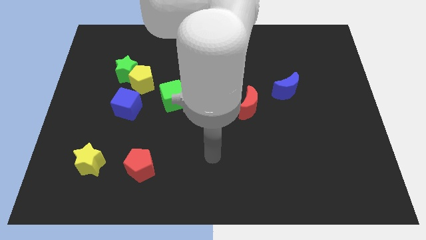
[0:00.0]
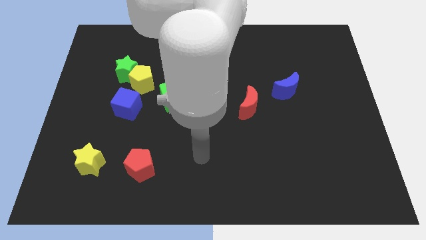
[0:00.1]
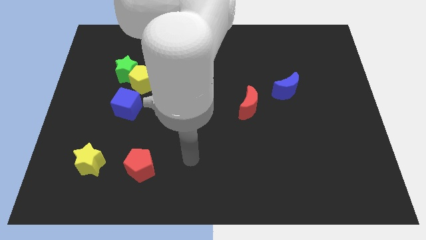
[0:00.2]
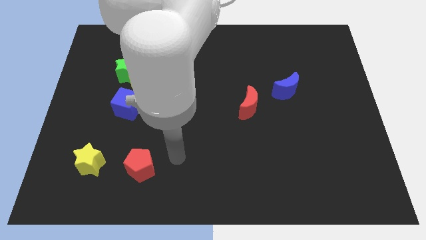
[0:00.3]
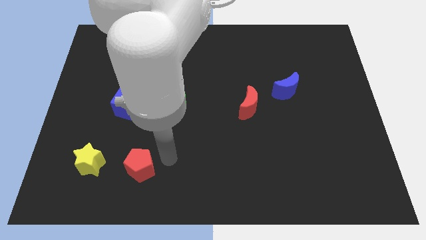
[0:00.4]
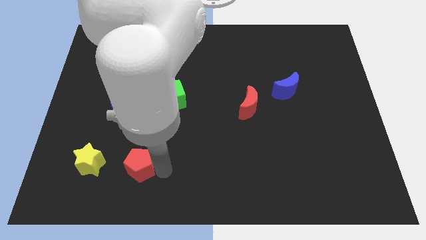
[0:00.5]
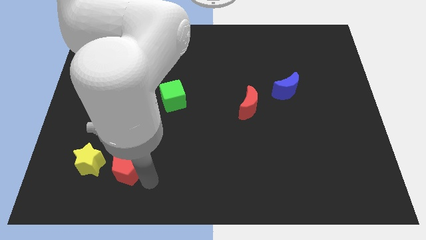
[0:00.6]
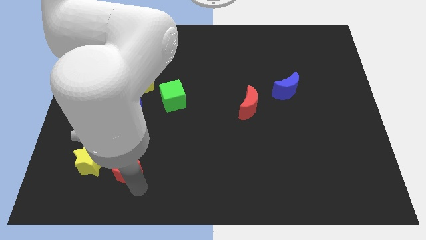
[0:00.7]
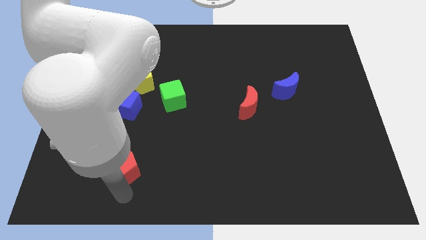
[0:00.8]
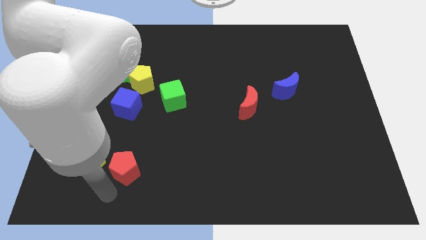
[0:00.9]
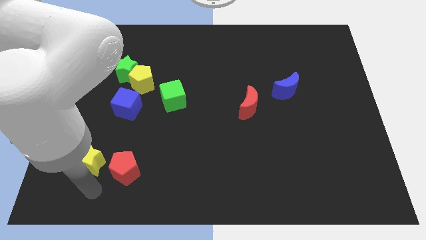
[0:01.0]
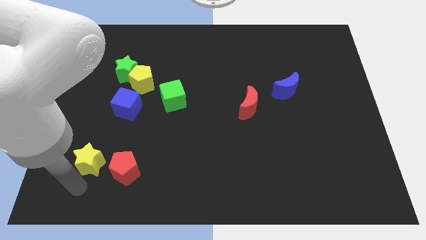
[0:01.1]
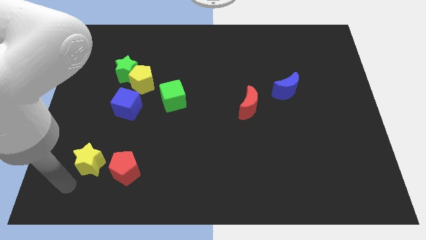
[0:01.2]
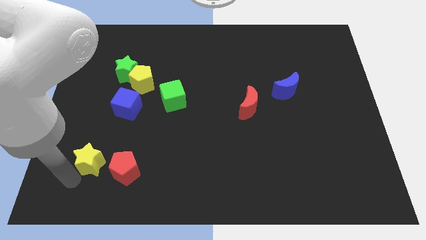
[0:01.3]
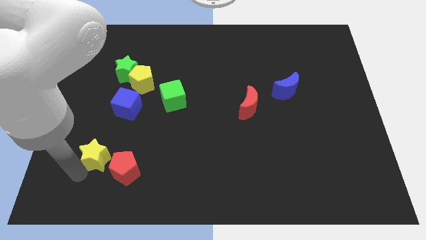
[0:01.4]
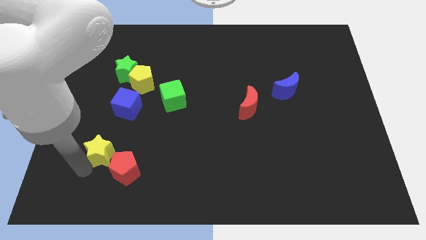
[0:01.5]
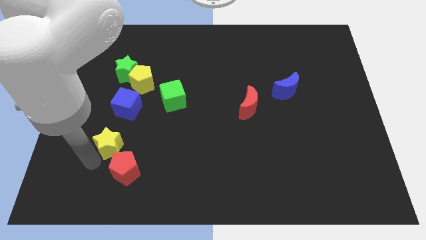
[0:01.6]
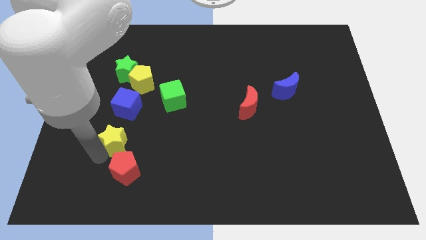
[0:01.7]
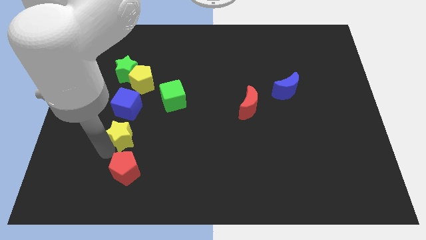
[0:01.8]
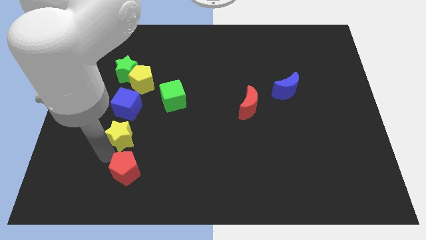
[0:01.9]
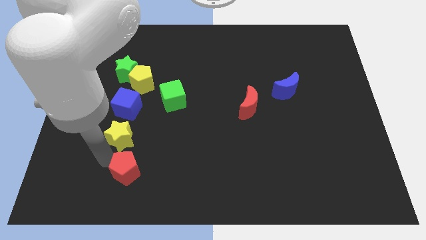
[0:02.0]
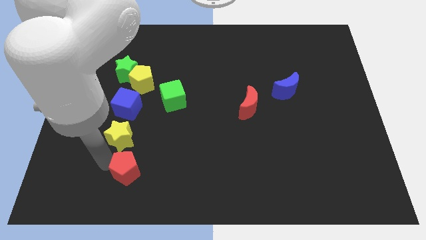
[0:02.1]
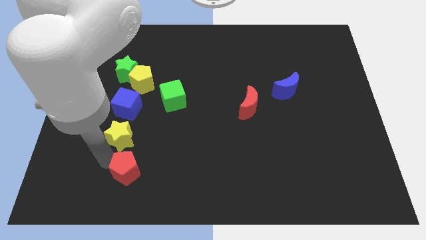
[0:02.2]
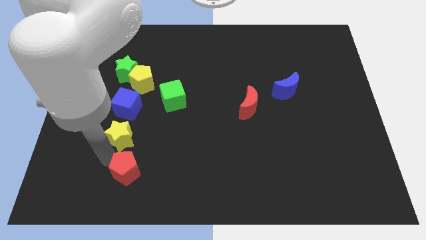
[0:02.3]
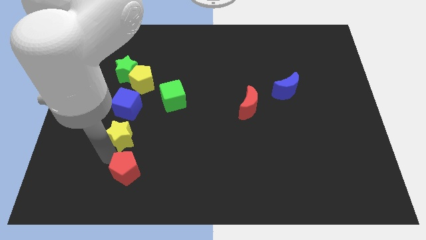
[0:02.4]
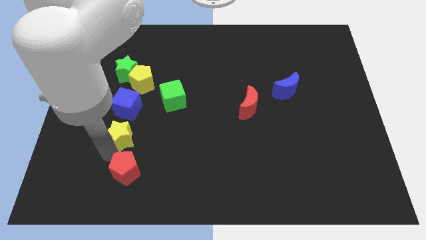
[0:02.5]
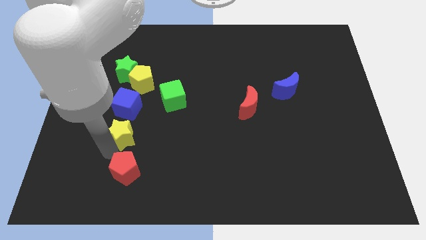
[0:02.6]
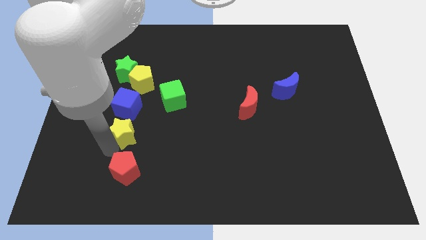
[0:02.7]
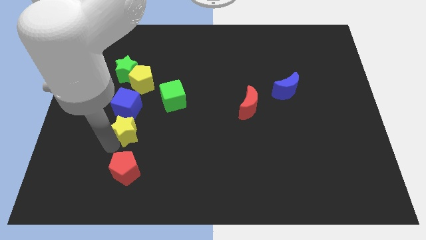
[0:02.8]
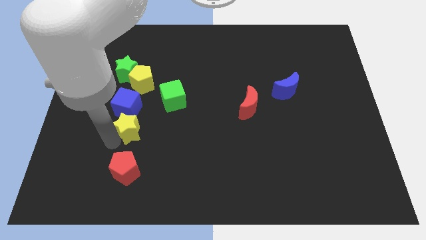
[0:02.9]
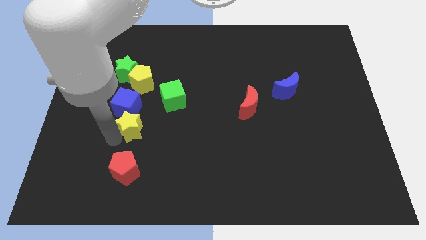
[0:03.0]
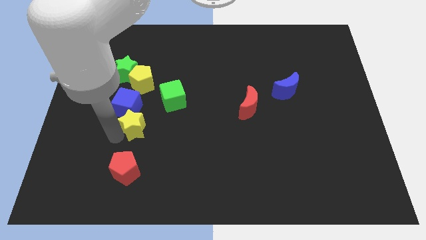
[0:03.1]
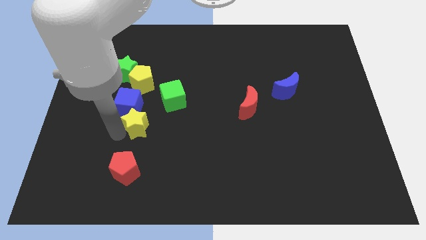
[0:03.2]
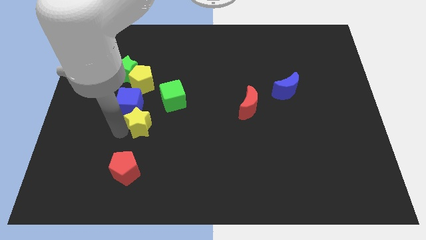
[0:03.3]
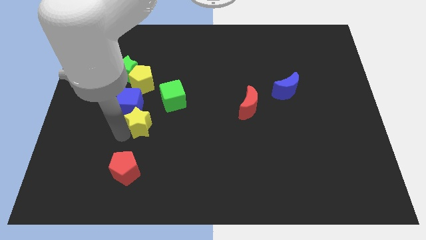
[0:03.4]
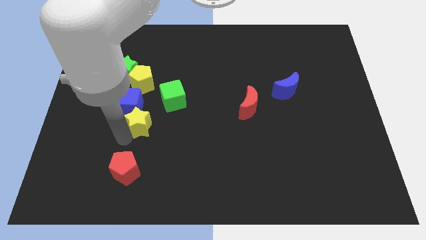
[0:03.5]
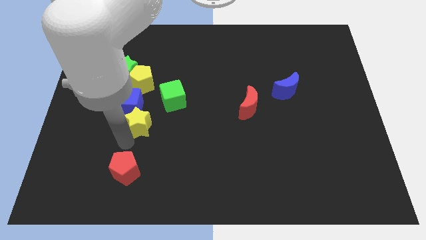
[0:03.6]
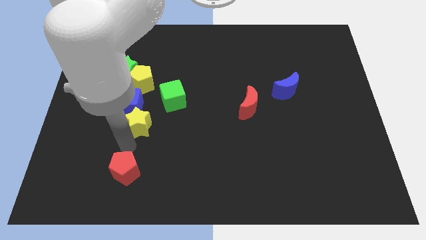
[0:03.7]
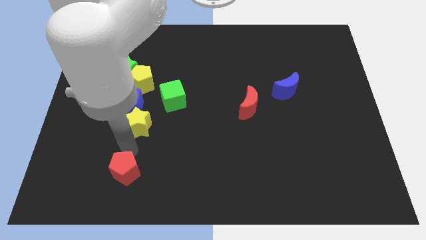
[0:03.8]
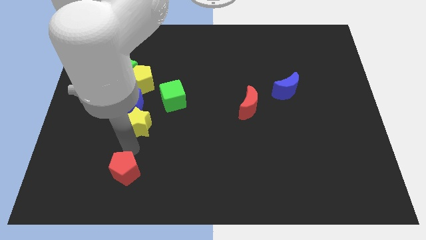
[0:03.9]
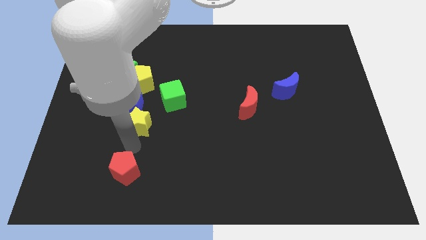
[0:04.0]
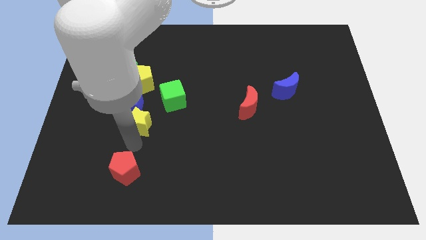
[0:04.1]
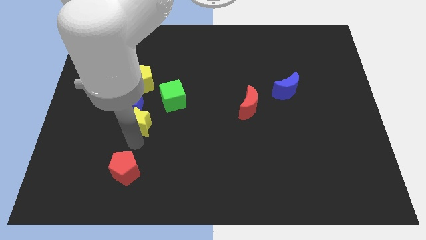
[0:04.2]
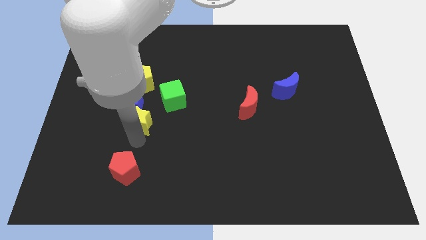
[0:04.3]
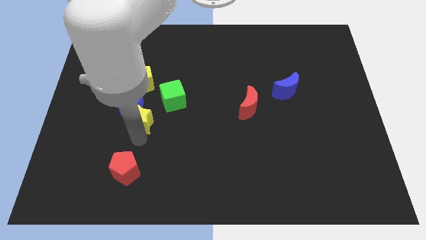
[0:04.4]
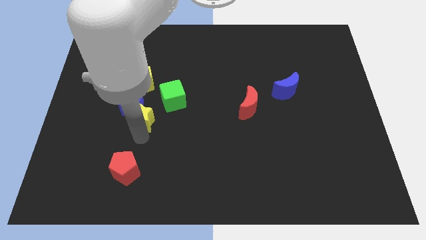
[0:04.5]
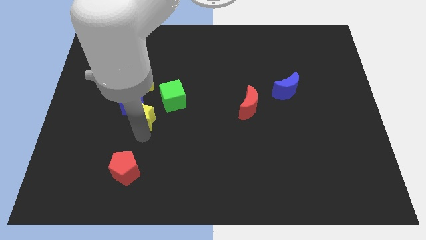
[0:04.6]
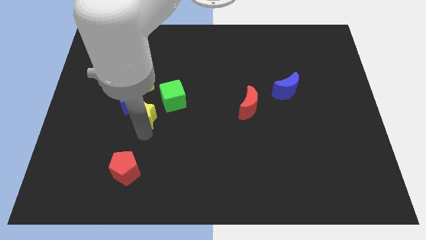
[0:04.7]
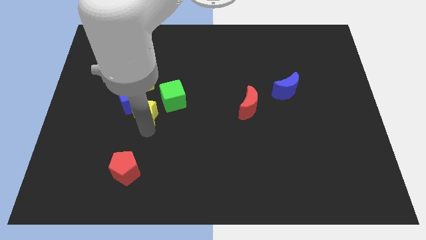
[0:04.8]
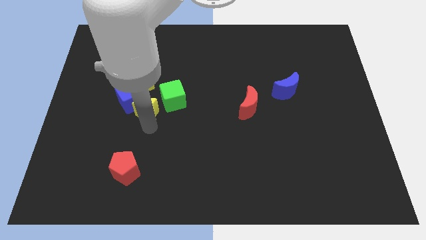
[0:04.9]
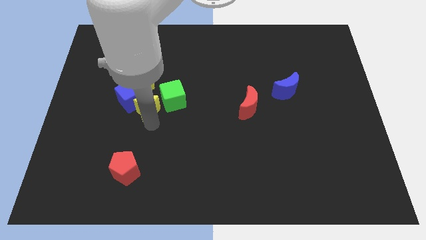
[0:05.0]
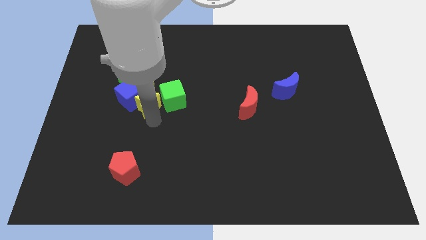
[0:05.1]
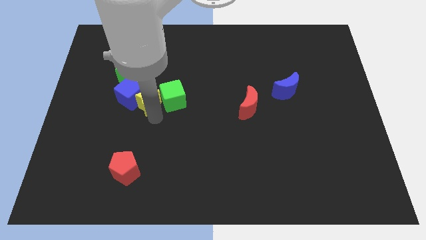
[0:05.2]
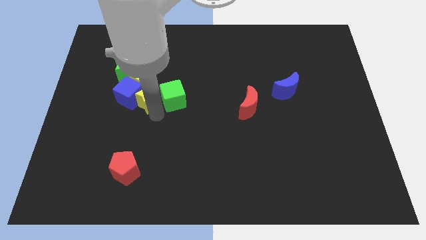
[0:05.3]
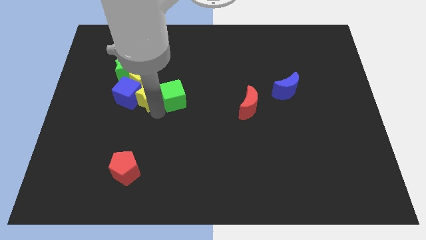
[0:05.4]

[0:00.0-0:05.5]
put the yellow star to the top right side of the blue cube

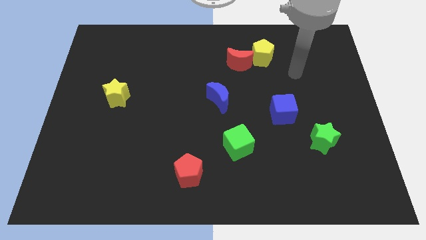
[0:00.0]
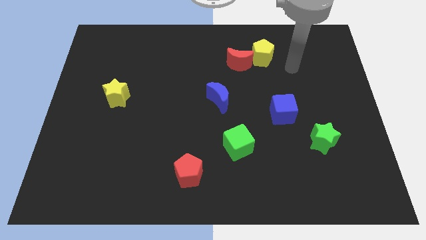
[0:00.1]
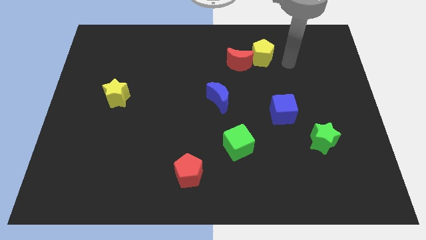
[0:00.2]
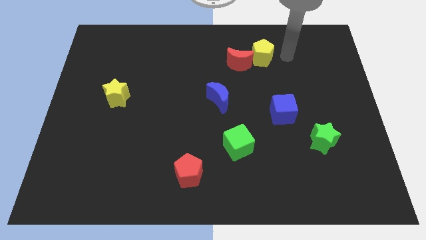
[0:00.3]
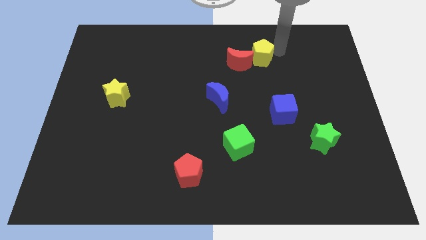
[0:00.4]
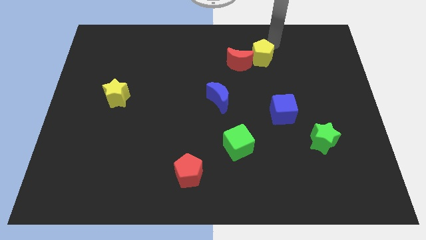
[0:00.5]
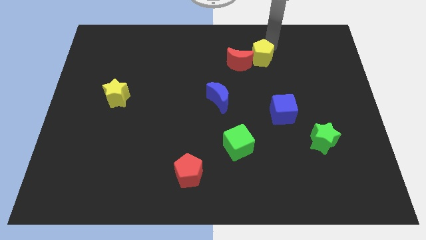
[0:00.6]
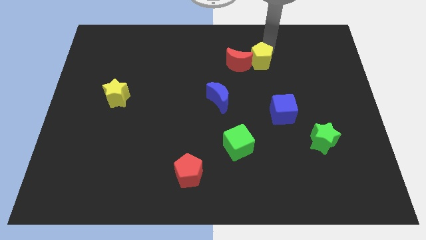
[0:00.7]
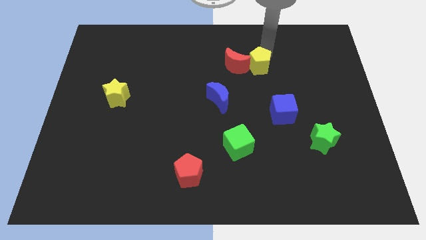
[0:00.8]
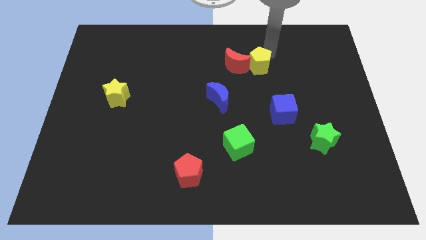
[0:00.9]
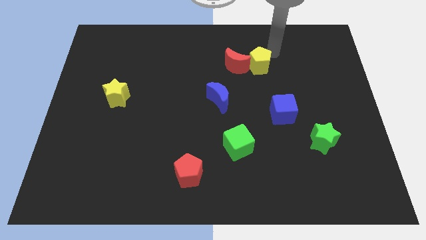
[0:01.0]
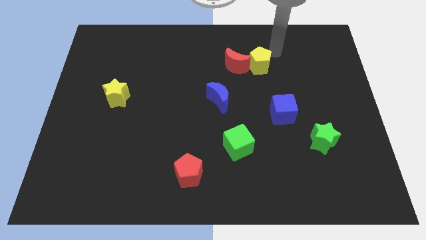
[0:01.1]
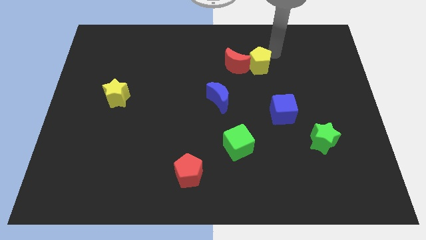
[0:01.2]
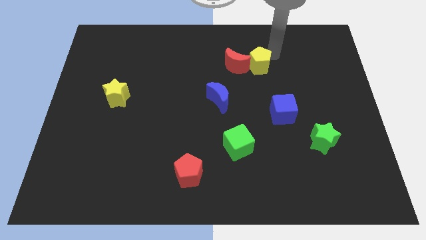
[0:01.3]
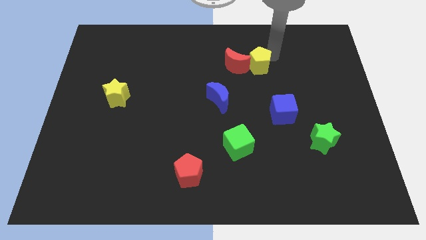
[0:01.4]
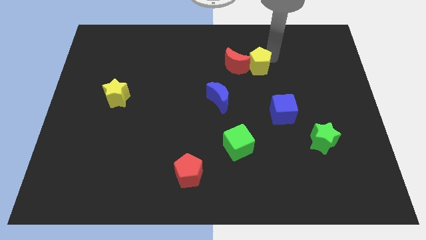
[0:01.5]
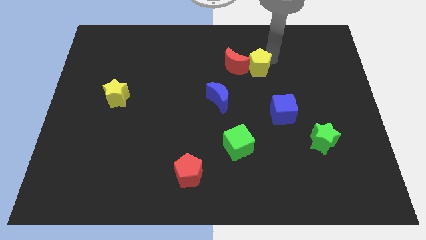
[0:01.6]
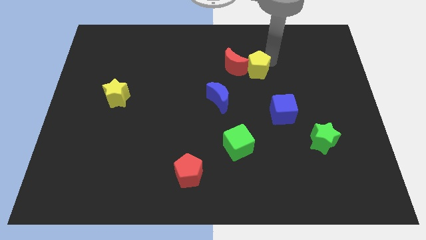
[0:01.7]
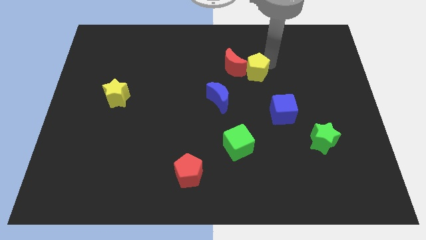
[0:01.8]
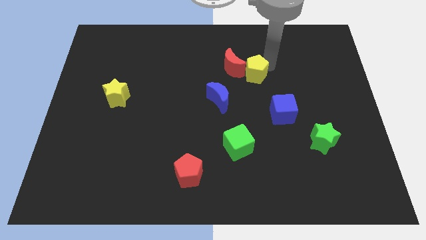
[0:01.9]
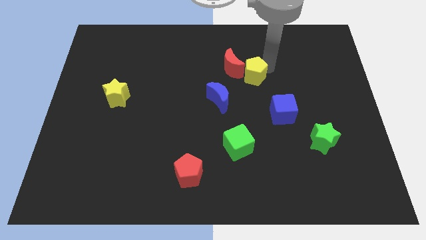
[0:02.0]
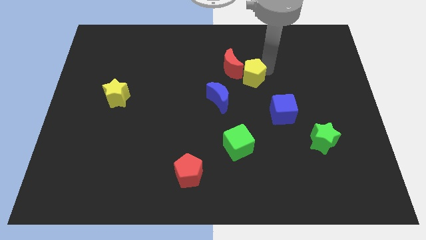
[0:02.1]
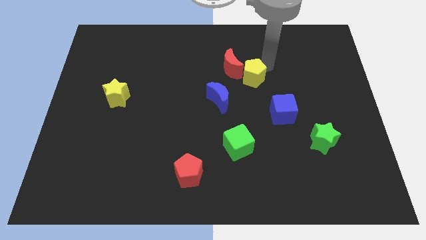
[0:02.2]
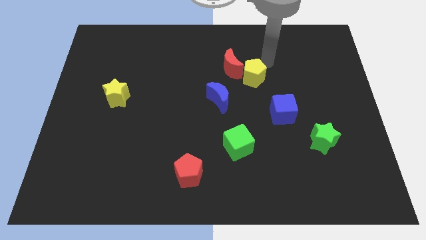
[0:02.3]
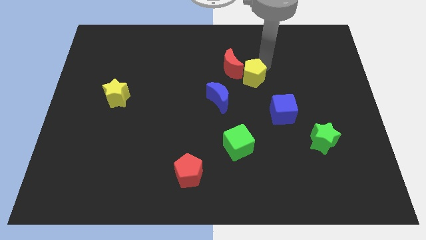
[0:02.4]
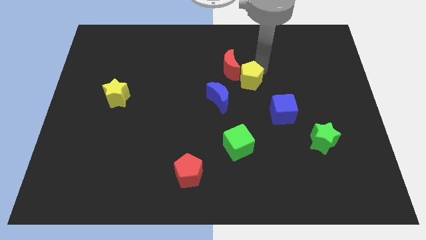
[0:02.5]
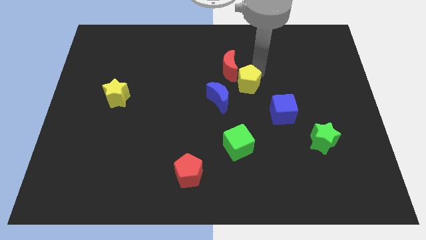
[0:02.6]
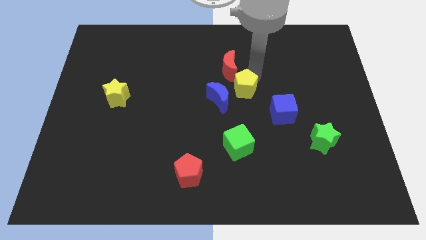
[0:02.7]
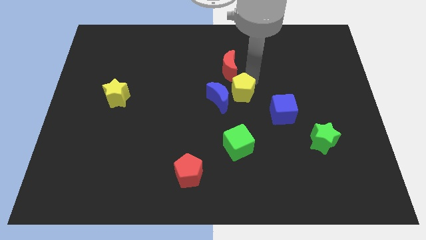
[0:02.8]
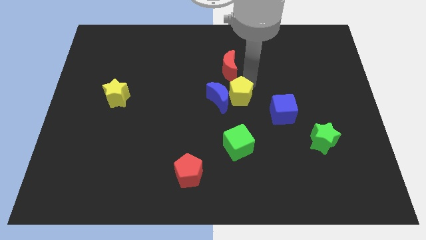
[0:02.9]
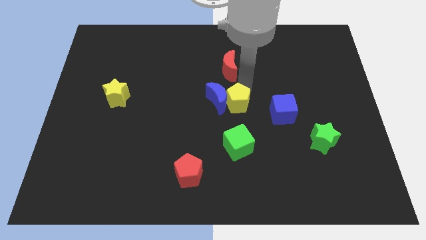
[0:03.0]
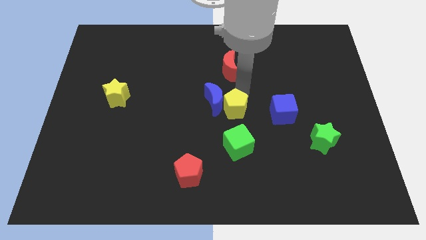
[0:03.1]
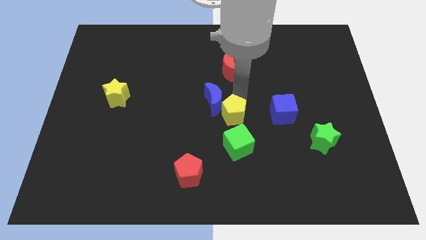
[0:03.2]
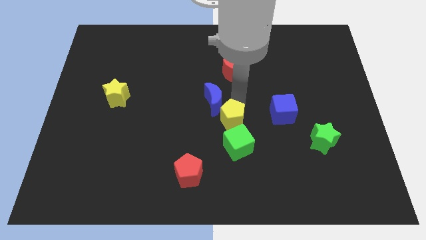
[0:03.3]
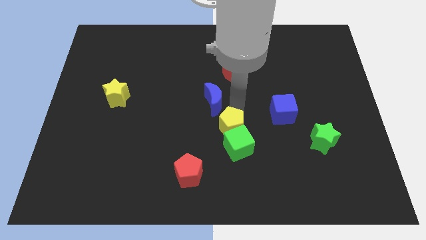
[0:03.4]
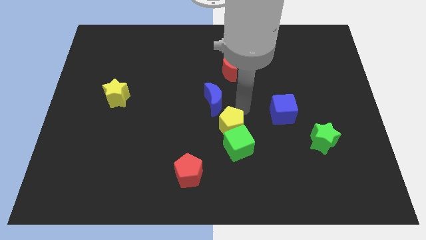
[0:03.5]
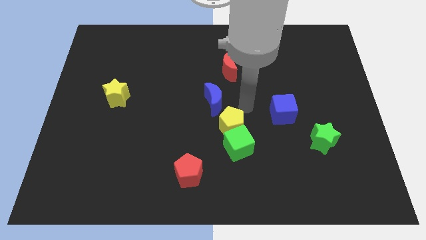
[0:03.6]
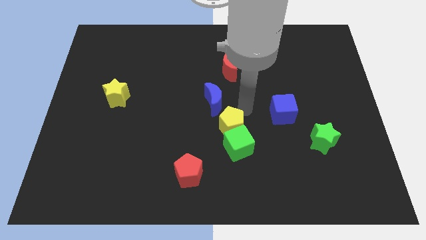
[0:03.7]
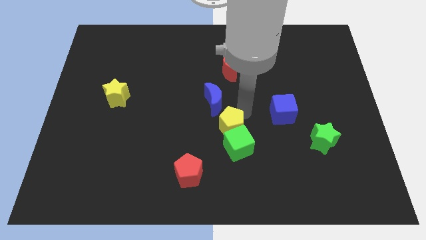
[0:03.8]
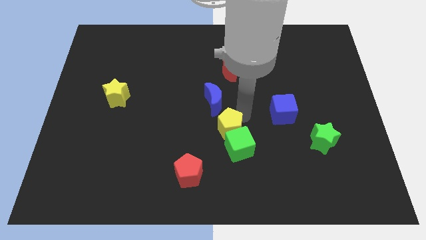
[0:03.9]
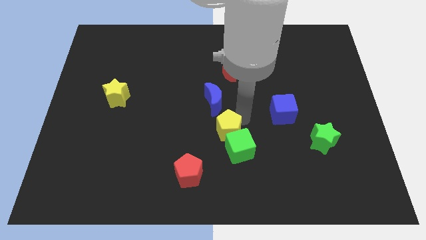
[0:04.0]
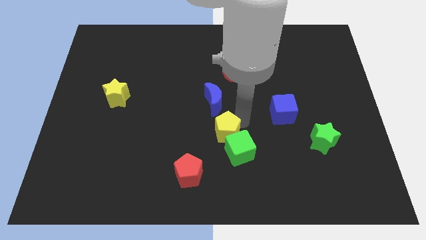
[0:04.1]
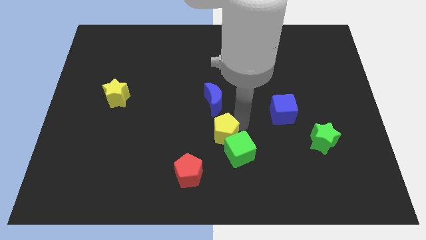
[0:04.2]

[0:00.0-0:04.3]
slide the yellow pentagon to the top right of the red pentagon
